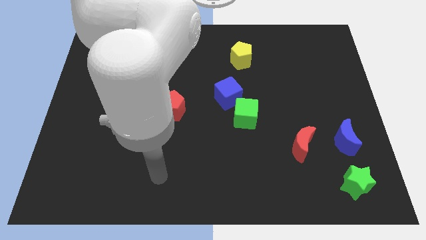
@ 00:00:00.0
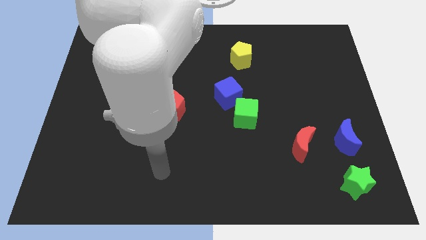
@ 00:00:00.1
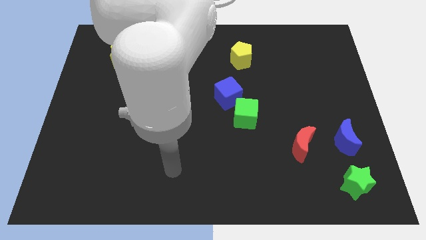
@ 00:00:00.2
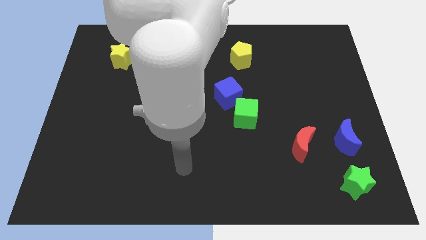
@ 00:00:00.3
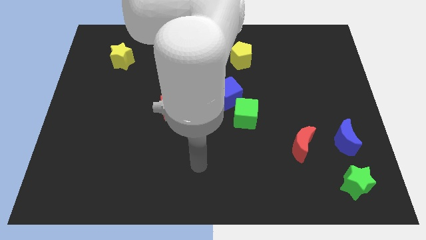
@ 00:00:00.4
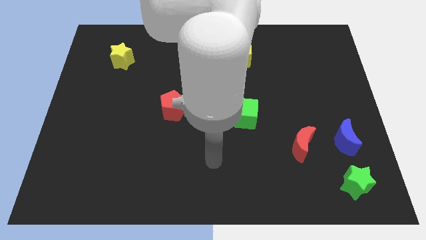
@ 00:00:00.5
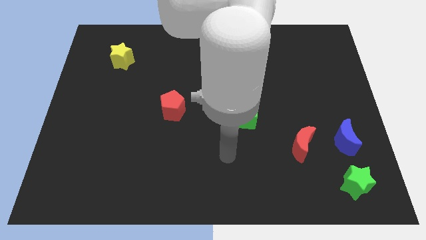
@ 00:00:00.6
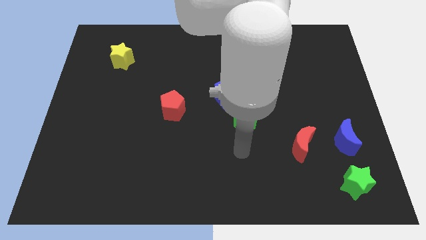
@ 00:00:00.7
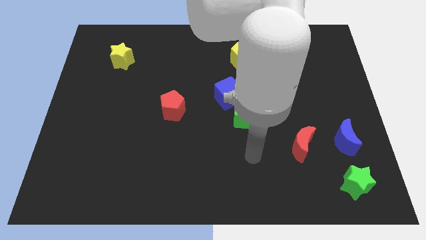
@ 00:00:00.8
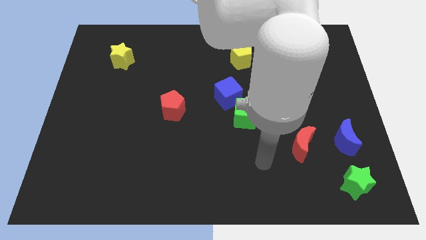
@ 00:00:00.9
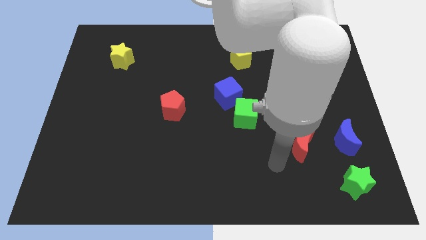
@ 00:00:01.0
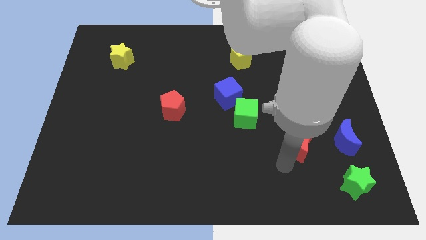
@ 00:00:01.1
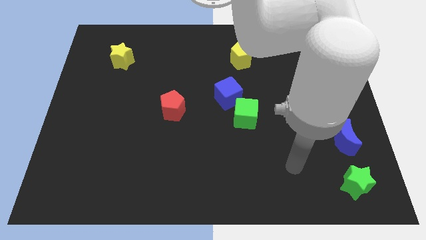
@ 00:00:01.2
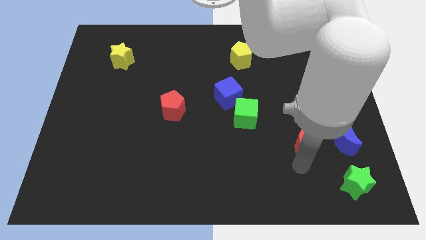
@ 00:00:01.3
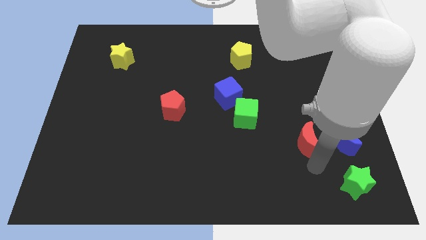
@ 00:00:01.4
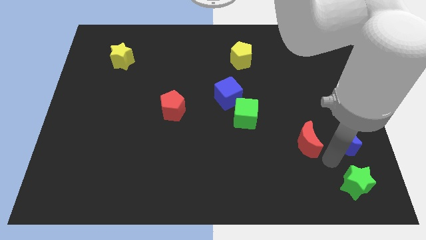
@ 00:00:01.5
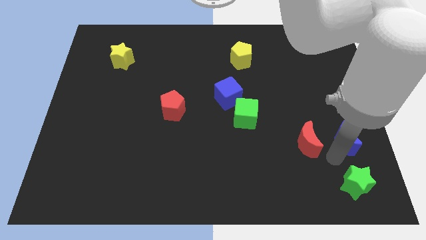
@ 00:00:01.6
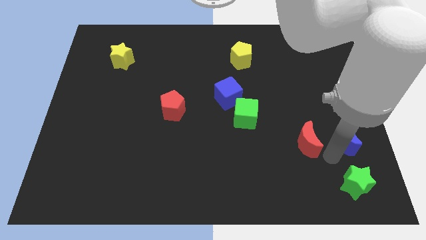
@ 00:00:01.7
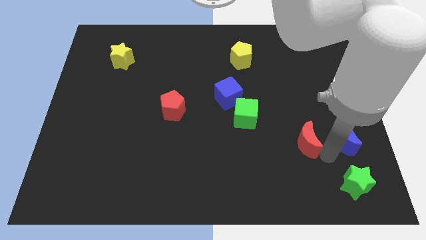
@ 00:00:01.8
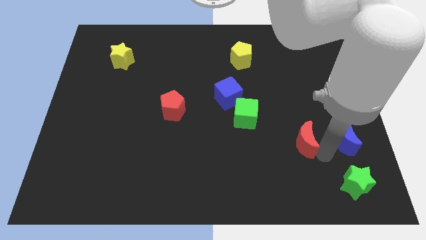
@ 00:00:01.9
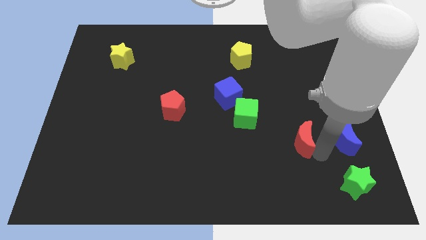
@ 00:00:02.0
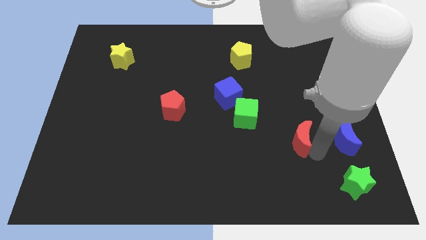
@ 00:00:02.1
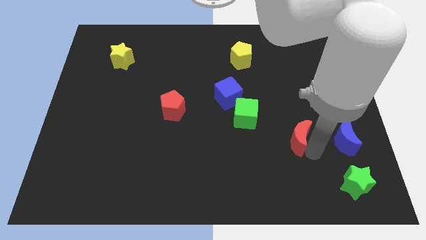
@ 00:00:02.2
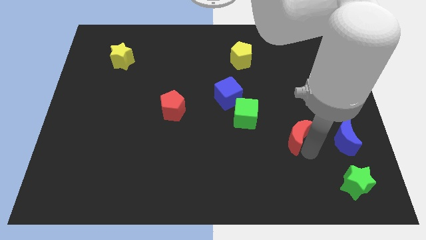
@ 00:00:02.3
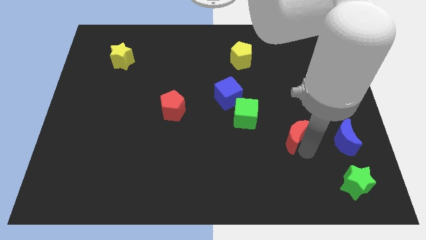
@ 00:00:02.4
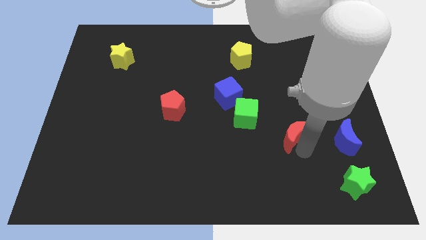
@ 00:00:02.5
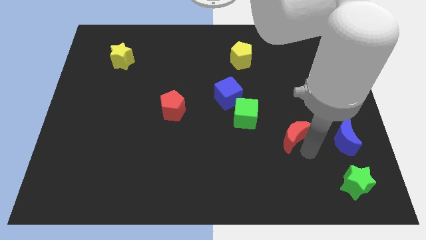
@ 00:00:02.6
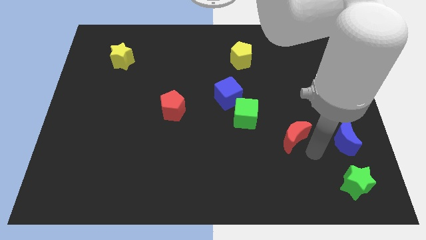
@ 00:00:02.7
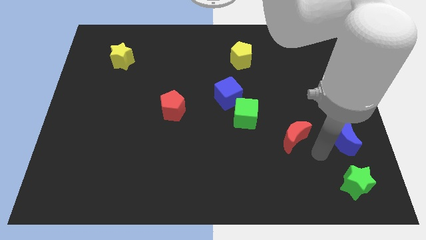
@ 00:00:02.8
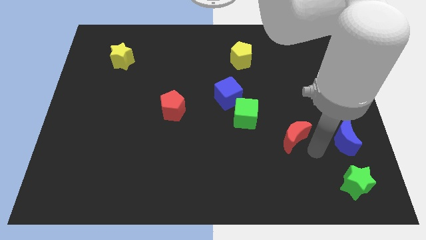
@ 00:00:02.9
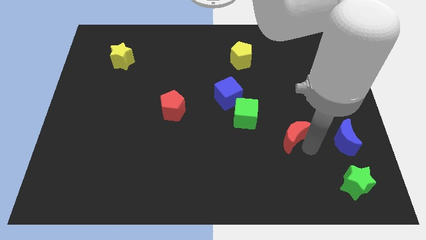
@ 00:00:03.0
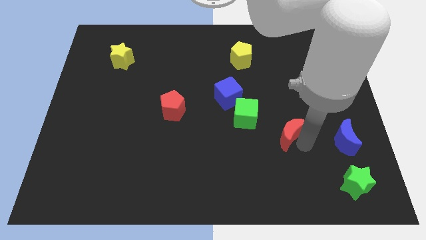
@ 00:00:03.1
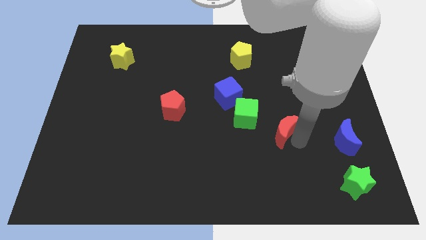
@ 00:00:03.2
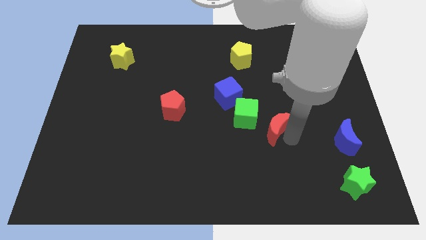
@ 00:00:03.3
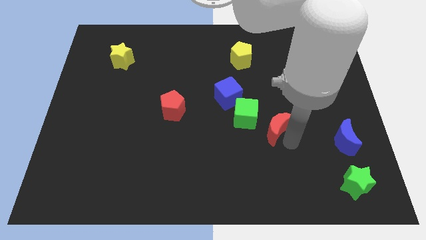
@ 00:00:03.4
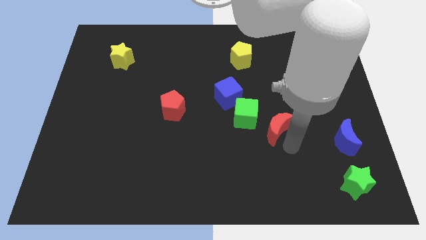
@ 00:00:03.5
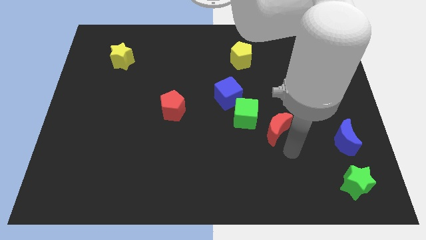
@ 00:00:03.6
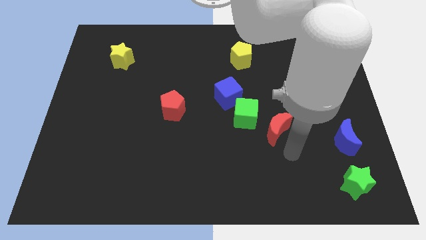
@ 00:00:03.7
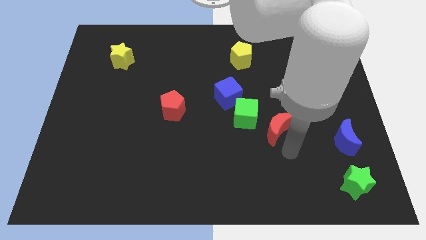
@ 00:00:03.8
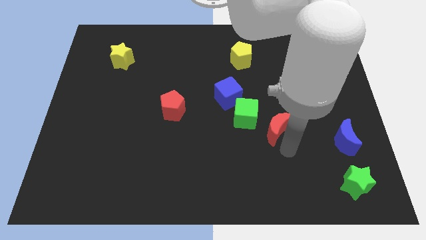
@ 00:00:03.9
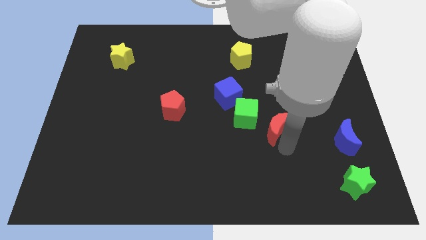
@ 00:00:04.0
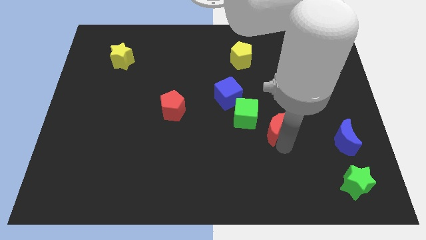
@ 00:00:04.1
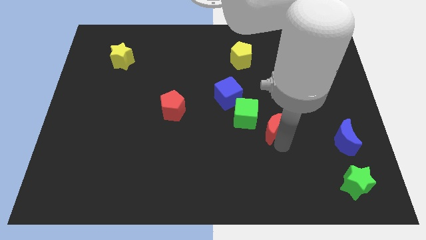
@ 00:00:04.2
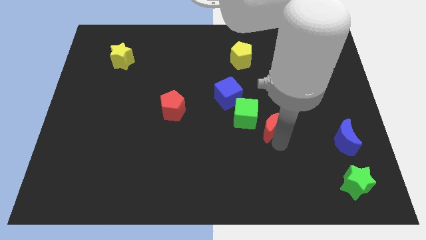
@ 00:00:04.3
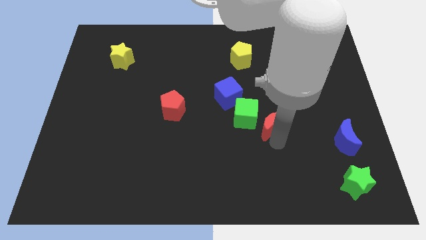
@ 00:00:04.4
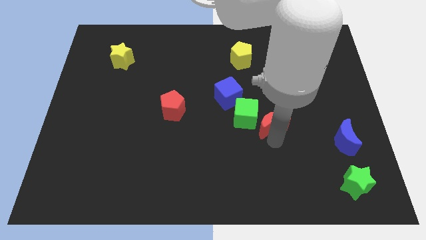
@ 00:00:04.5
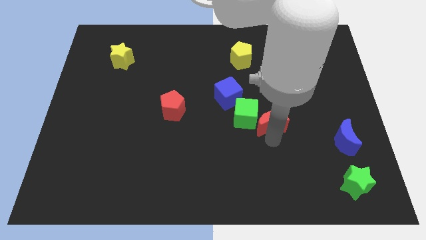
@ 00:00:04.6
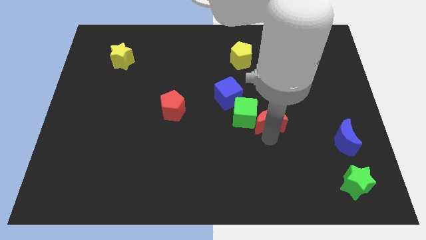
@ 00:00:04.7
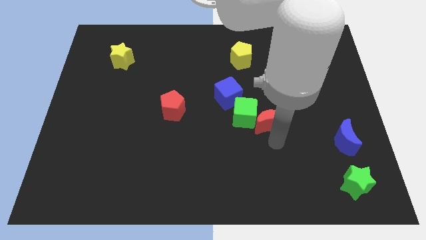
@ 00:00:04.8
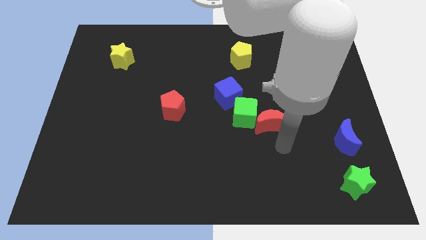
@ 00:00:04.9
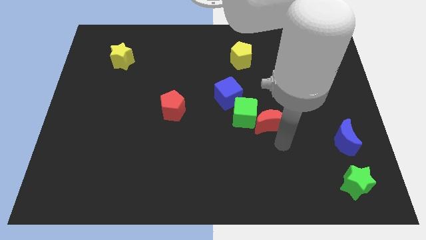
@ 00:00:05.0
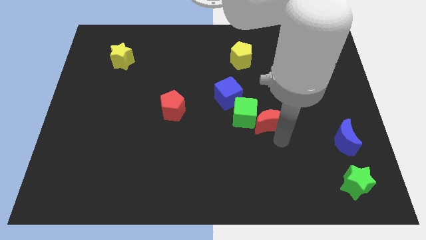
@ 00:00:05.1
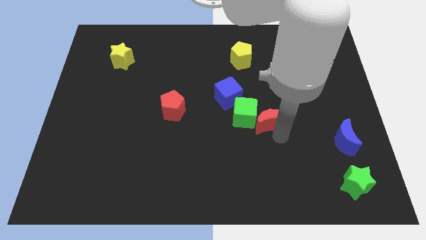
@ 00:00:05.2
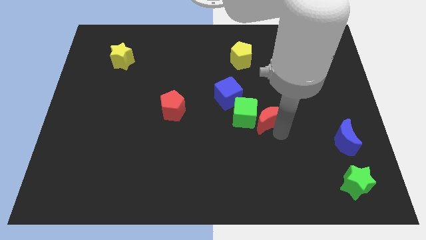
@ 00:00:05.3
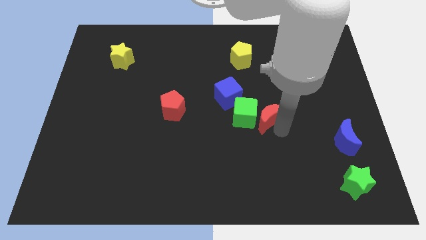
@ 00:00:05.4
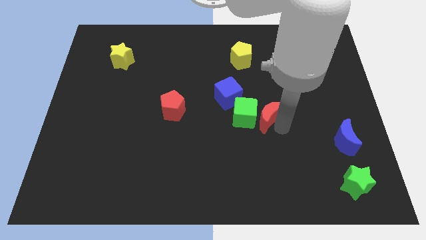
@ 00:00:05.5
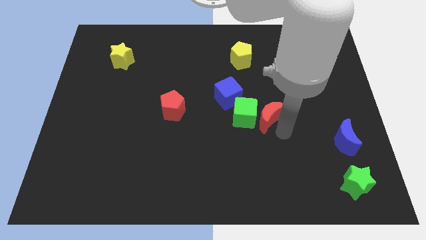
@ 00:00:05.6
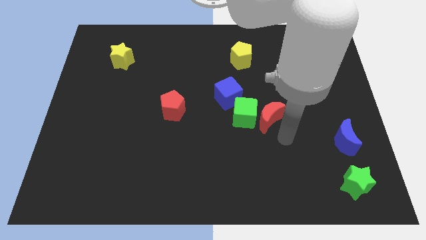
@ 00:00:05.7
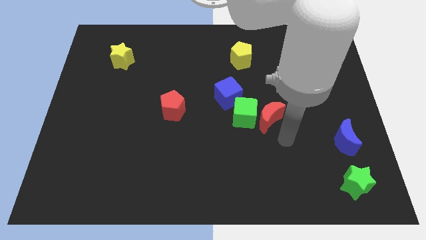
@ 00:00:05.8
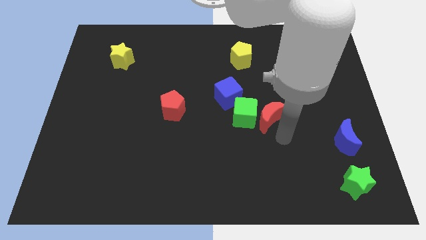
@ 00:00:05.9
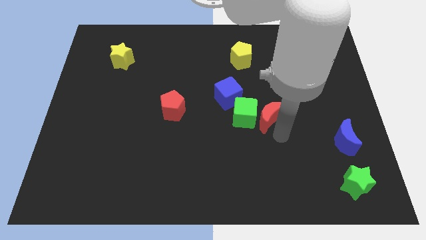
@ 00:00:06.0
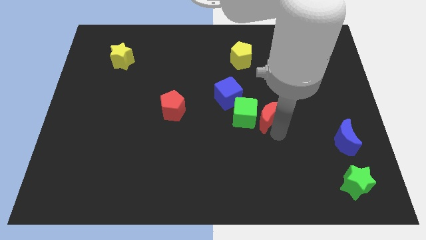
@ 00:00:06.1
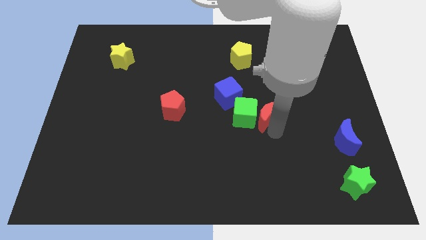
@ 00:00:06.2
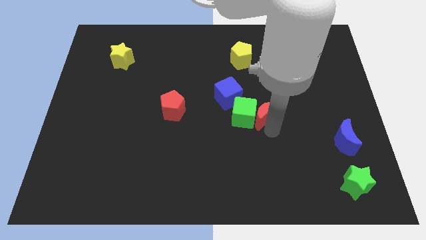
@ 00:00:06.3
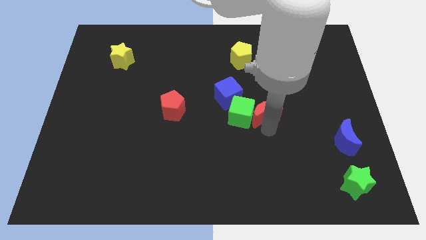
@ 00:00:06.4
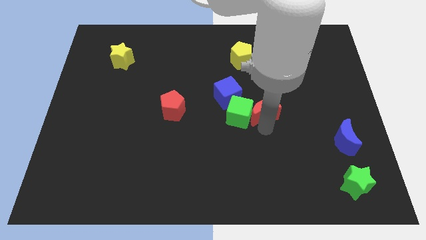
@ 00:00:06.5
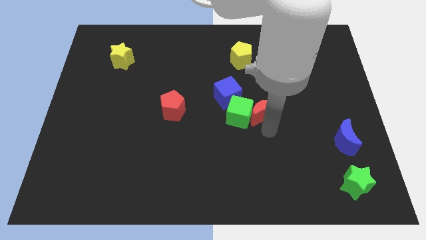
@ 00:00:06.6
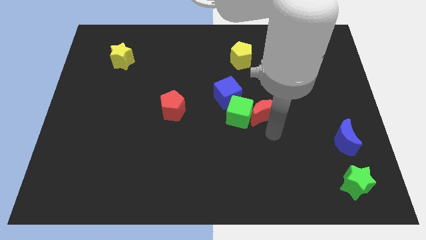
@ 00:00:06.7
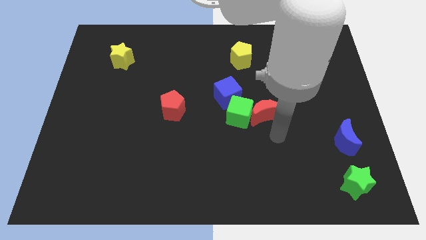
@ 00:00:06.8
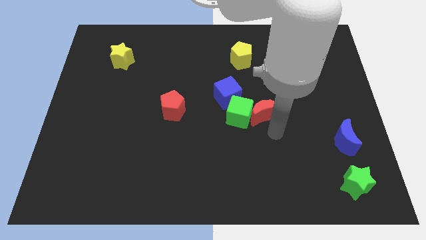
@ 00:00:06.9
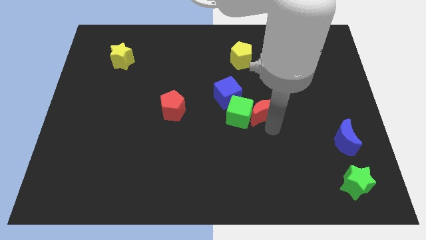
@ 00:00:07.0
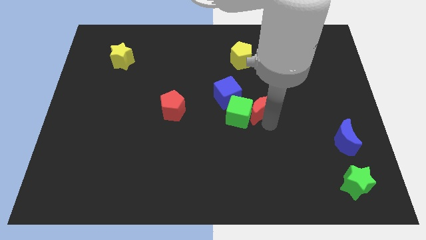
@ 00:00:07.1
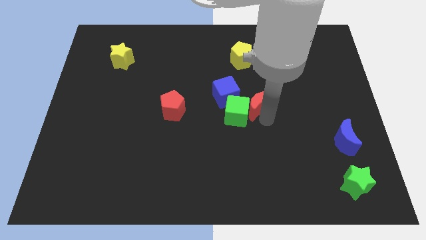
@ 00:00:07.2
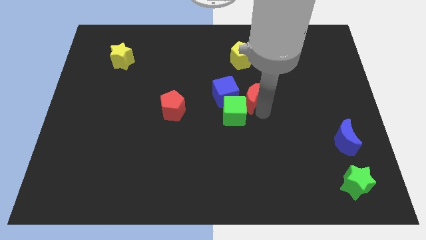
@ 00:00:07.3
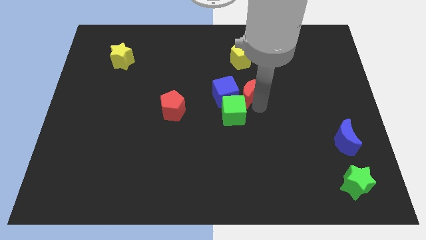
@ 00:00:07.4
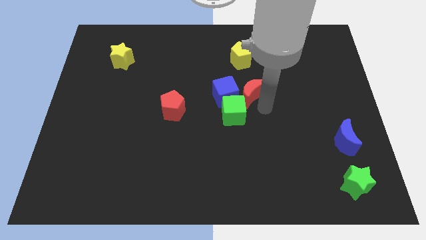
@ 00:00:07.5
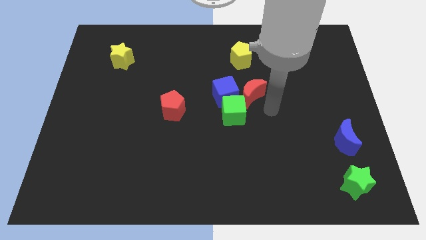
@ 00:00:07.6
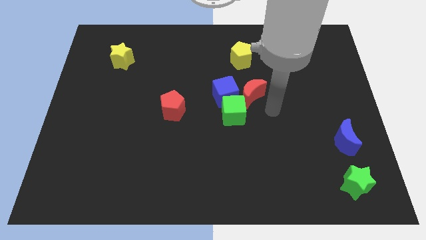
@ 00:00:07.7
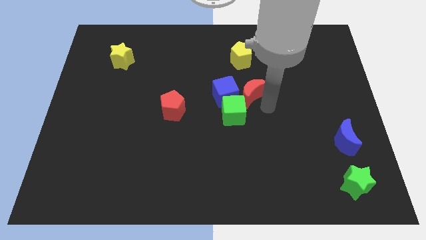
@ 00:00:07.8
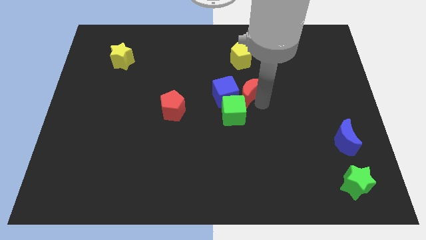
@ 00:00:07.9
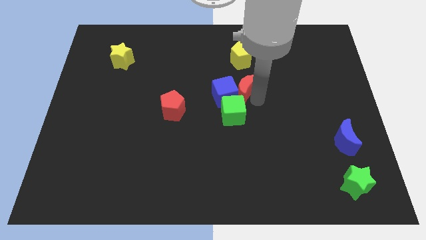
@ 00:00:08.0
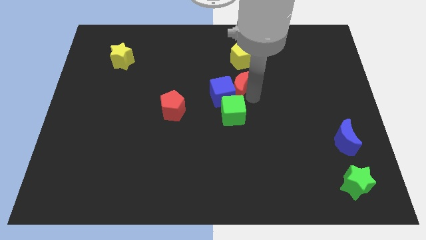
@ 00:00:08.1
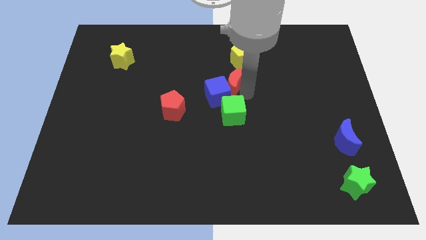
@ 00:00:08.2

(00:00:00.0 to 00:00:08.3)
slide the red moon diagonally down and to the left of the yellow pentagon
